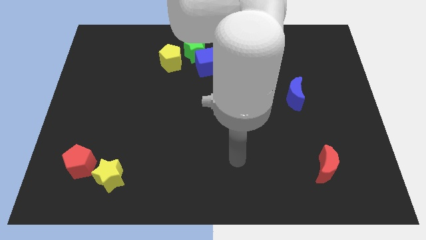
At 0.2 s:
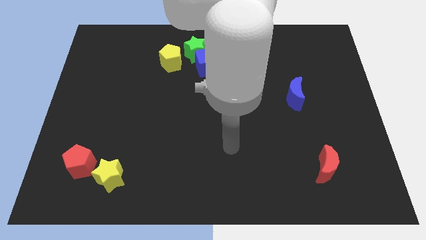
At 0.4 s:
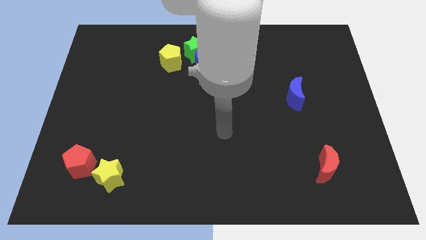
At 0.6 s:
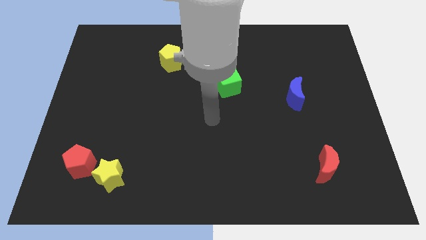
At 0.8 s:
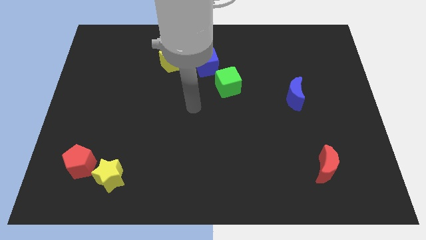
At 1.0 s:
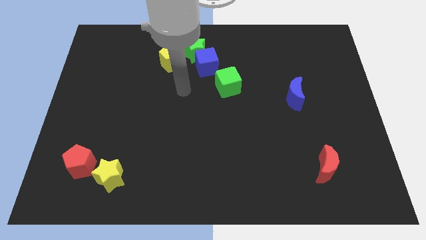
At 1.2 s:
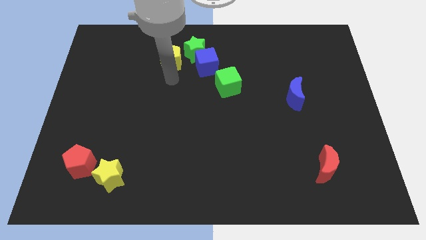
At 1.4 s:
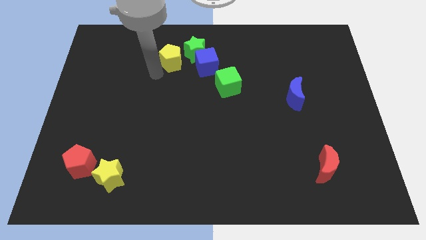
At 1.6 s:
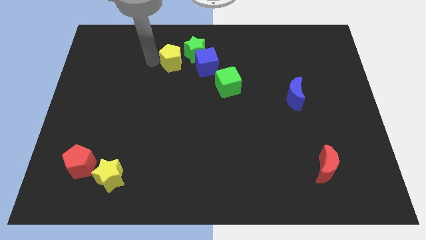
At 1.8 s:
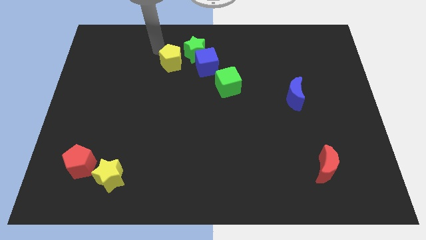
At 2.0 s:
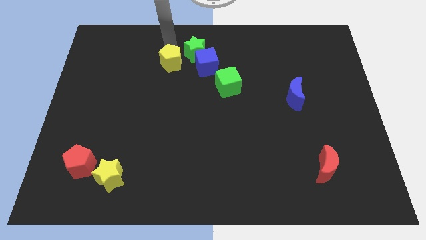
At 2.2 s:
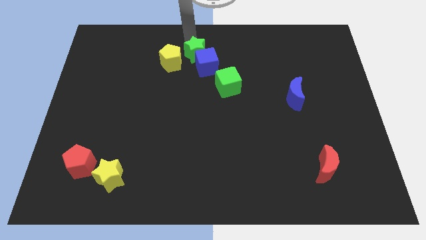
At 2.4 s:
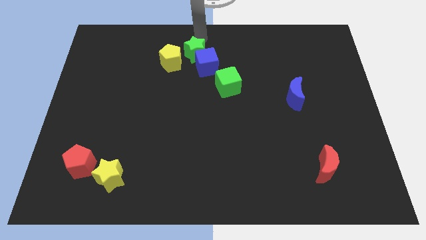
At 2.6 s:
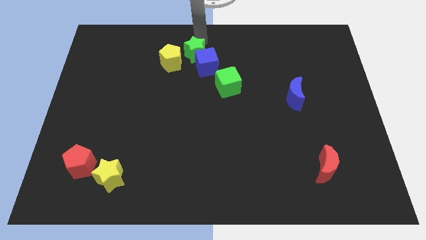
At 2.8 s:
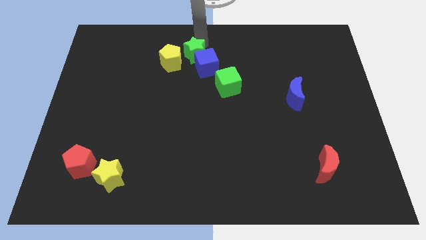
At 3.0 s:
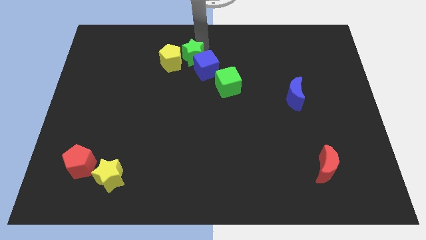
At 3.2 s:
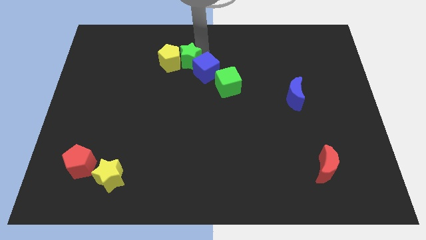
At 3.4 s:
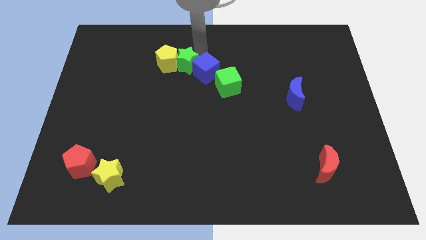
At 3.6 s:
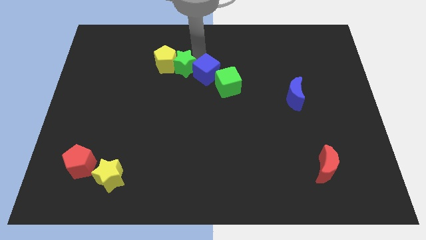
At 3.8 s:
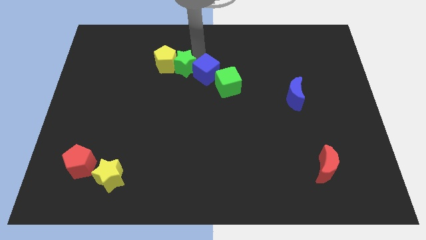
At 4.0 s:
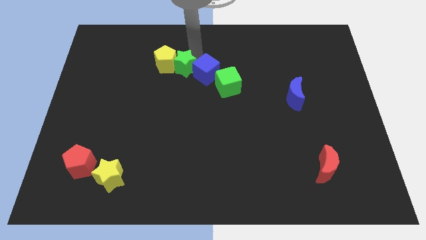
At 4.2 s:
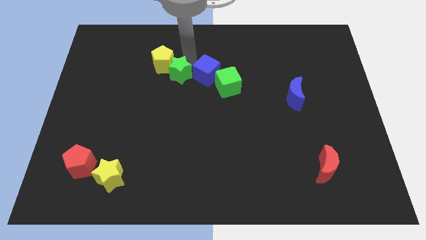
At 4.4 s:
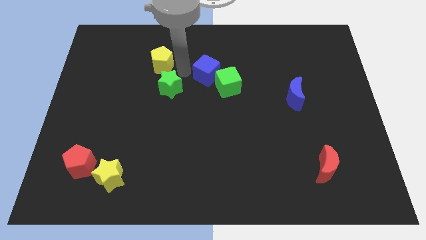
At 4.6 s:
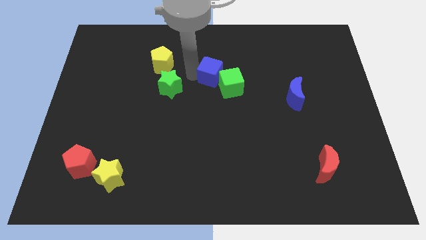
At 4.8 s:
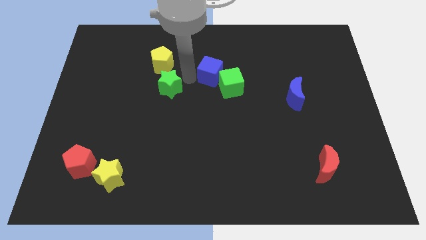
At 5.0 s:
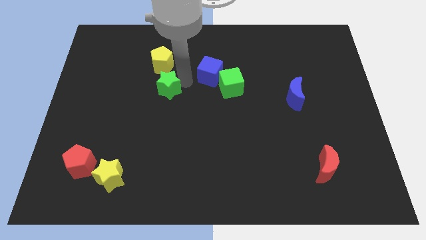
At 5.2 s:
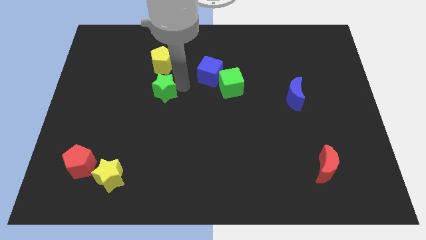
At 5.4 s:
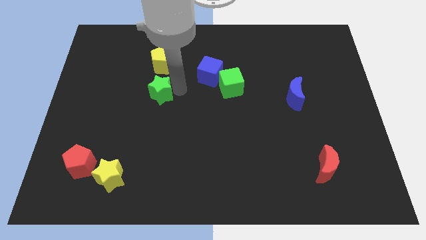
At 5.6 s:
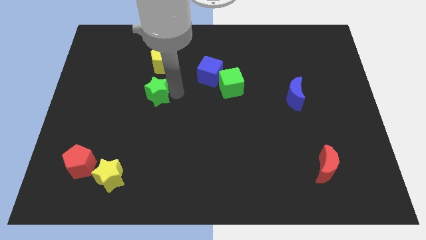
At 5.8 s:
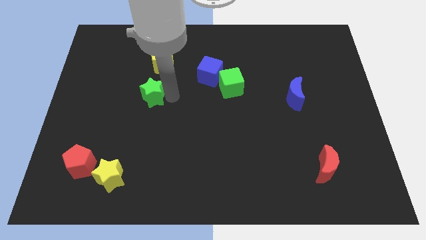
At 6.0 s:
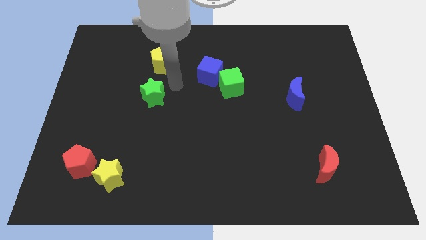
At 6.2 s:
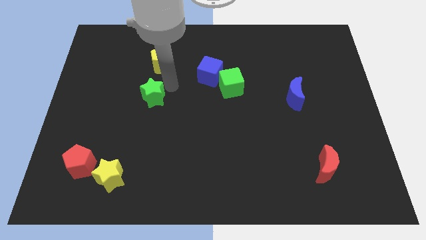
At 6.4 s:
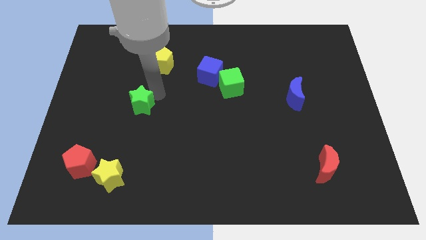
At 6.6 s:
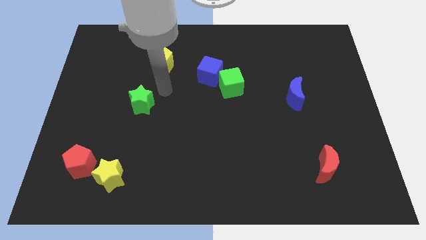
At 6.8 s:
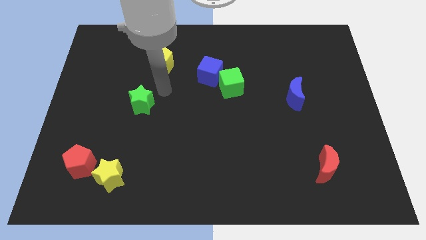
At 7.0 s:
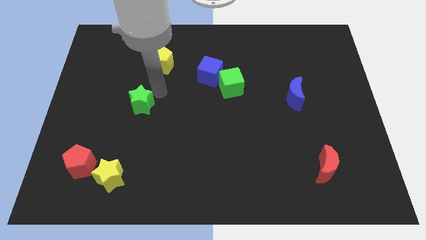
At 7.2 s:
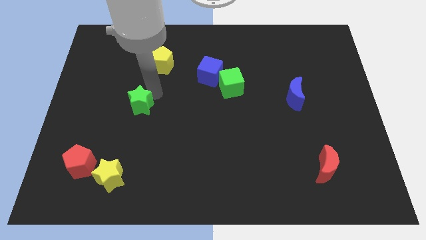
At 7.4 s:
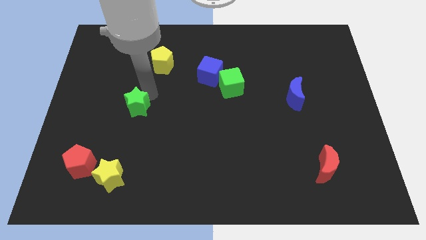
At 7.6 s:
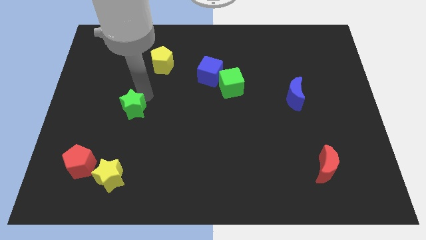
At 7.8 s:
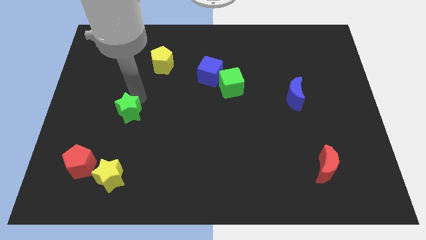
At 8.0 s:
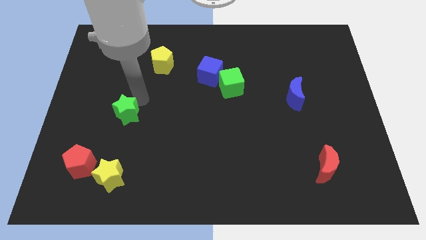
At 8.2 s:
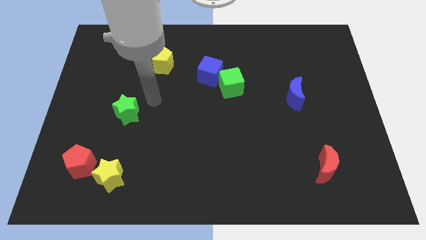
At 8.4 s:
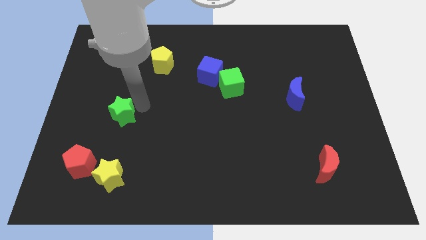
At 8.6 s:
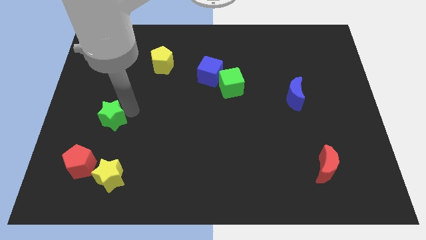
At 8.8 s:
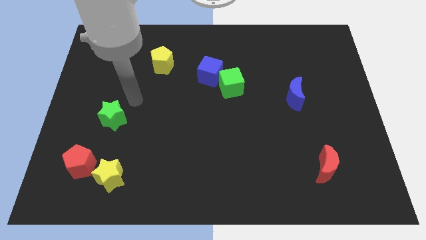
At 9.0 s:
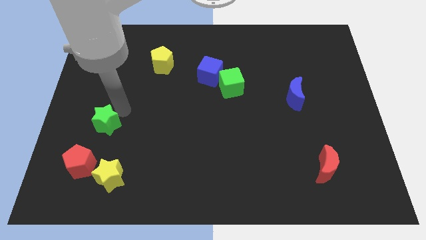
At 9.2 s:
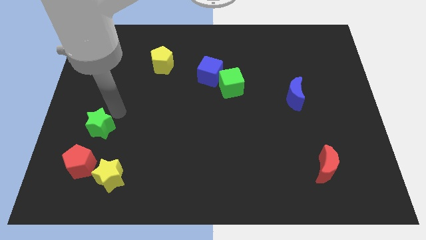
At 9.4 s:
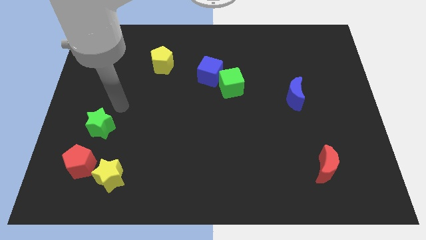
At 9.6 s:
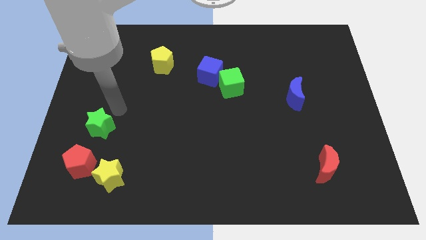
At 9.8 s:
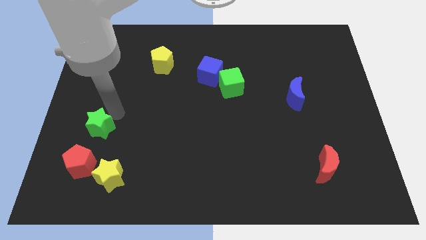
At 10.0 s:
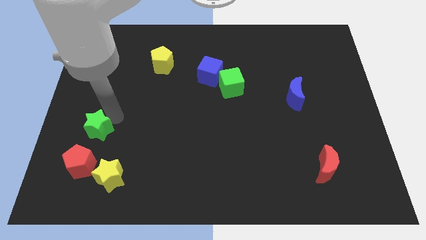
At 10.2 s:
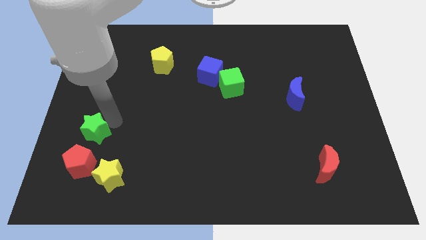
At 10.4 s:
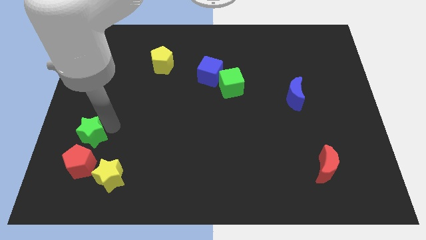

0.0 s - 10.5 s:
move the green star to the top left side of the yellow star

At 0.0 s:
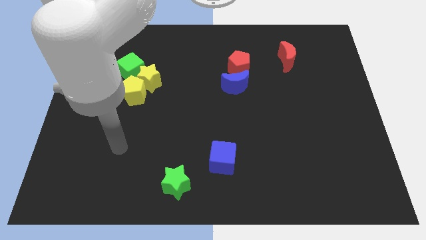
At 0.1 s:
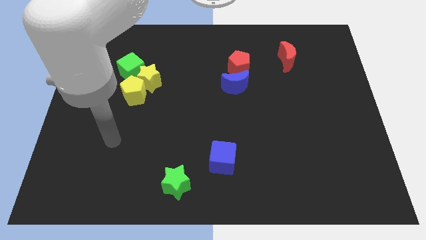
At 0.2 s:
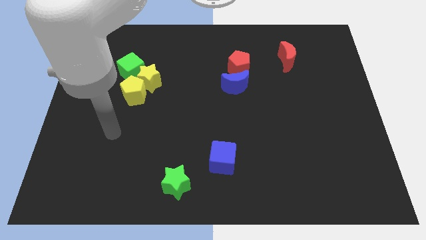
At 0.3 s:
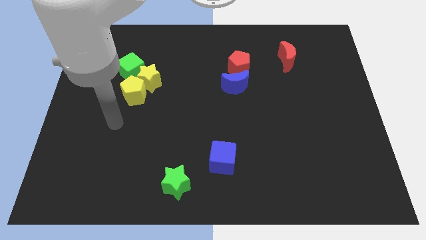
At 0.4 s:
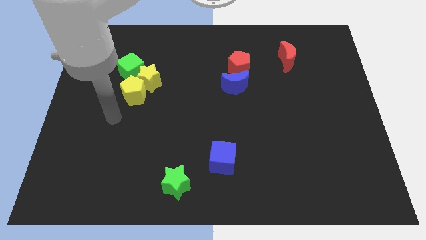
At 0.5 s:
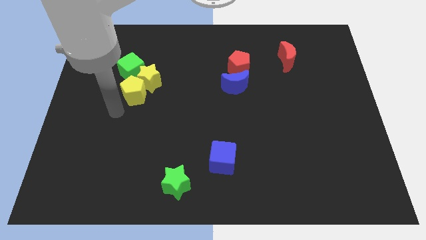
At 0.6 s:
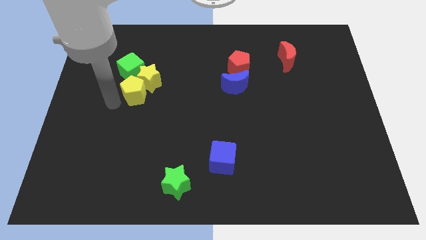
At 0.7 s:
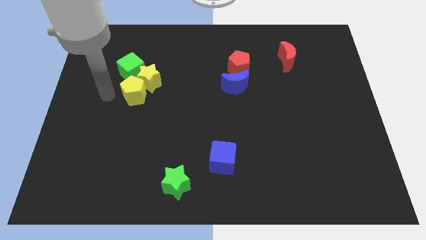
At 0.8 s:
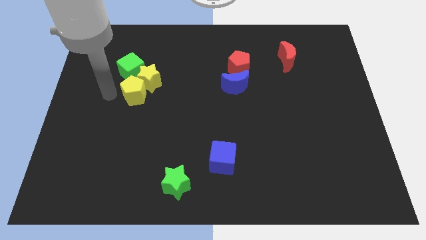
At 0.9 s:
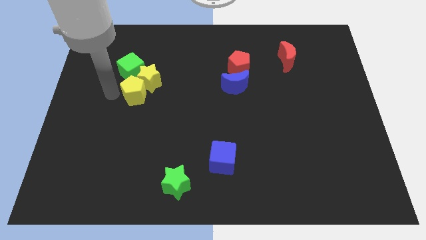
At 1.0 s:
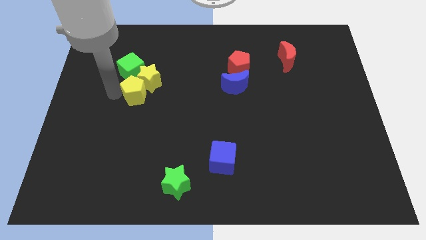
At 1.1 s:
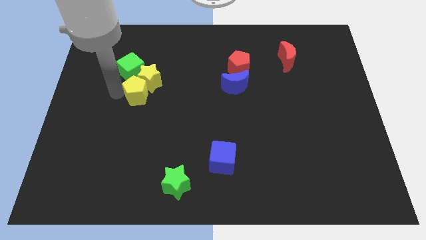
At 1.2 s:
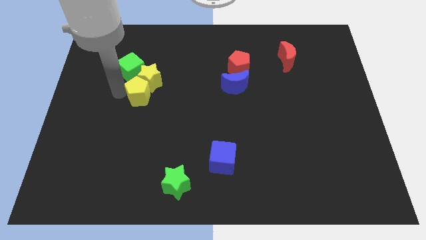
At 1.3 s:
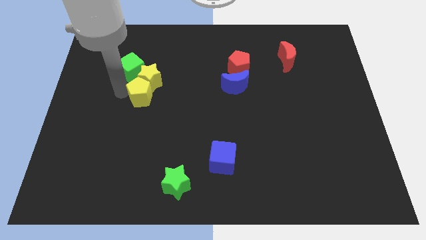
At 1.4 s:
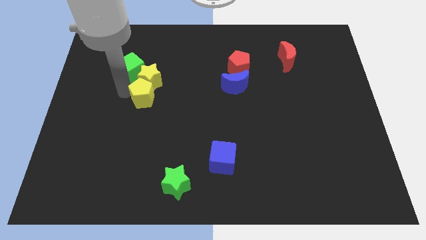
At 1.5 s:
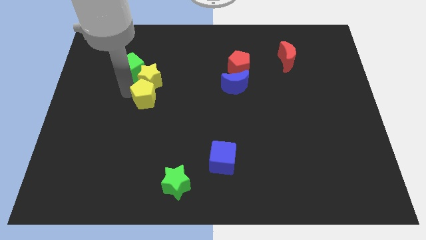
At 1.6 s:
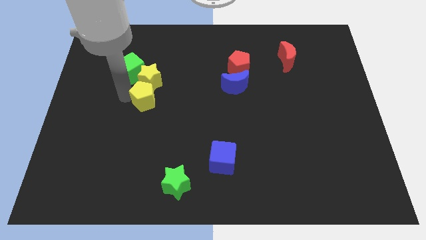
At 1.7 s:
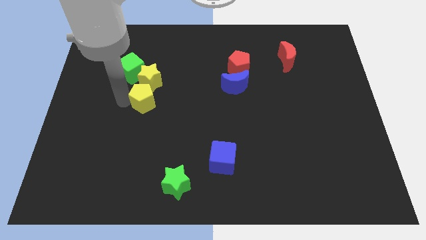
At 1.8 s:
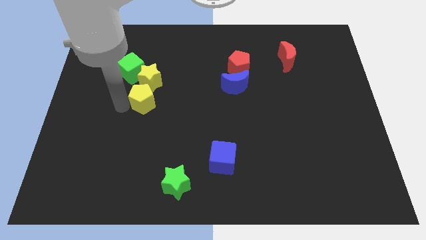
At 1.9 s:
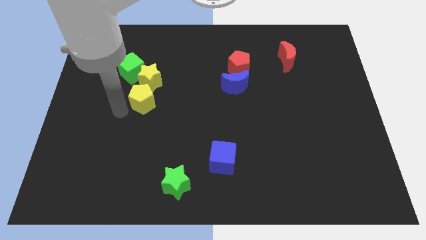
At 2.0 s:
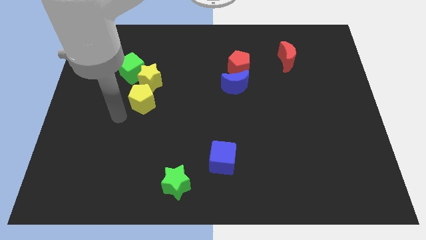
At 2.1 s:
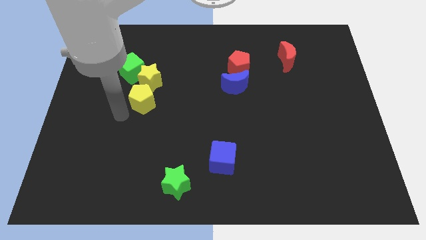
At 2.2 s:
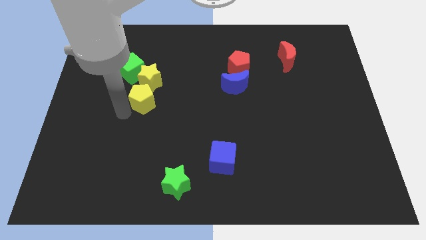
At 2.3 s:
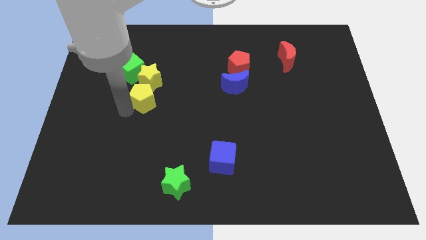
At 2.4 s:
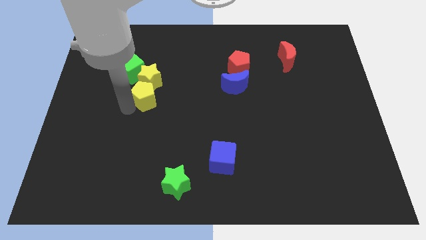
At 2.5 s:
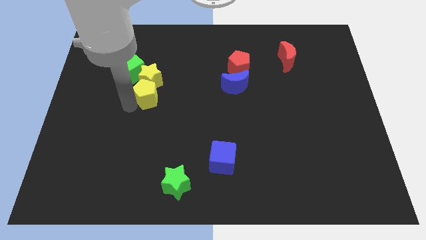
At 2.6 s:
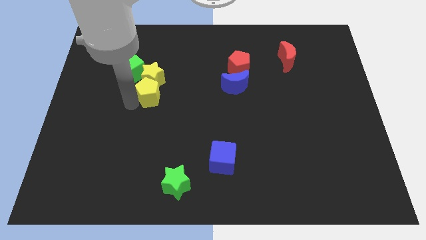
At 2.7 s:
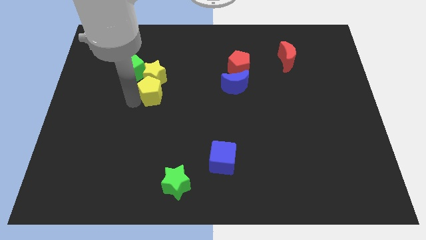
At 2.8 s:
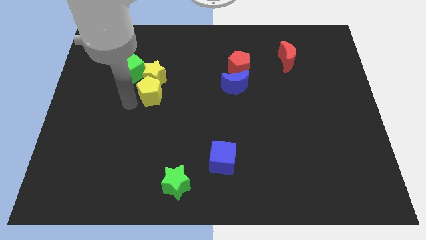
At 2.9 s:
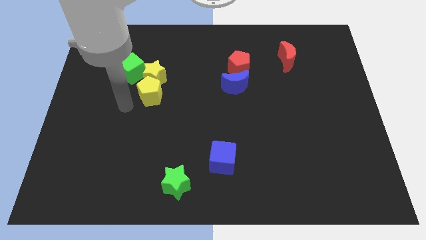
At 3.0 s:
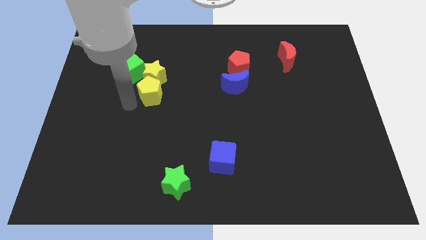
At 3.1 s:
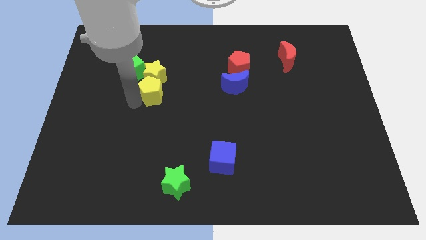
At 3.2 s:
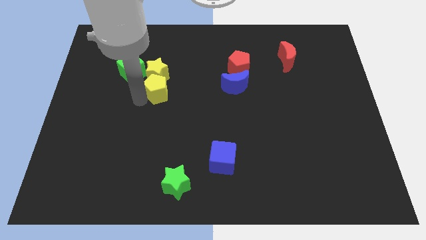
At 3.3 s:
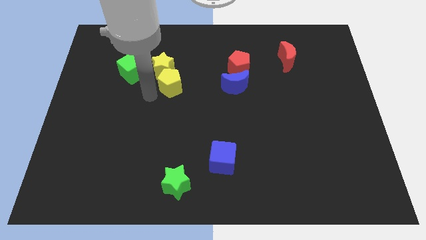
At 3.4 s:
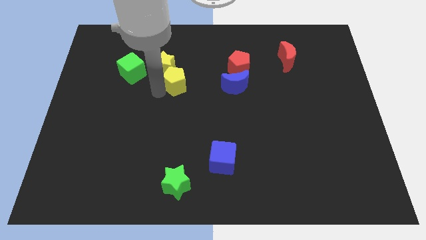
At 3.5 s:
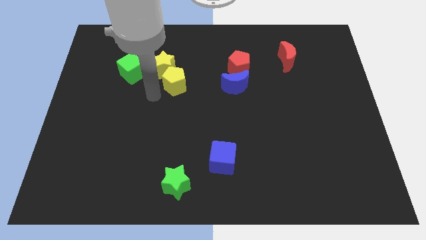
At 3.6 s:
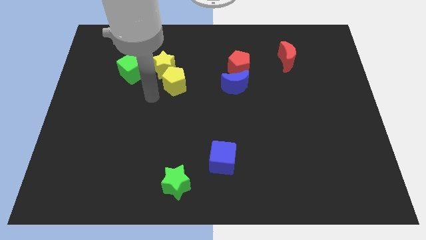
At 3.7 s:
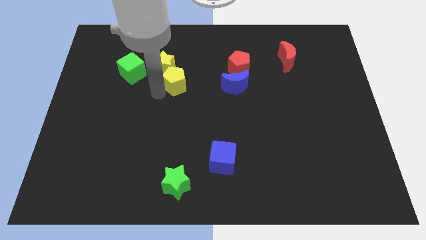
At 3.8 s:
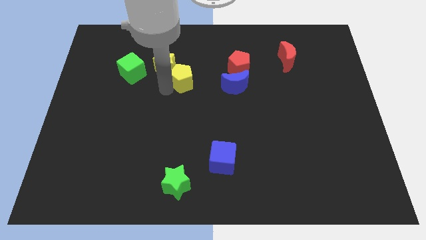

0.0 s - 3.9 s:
slide the yellow pentagon right of the yellow star
